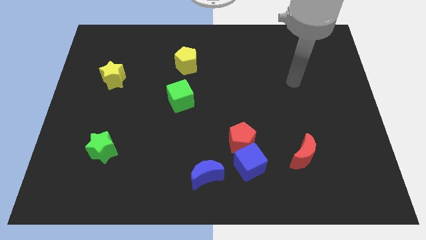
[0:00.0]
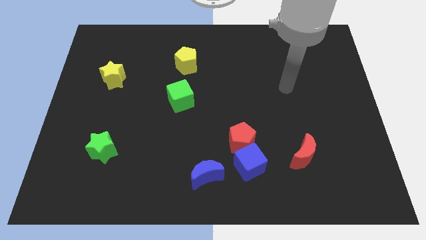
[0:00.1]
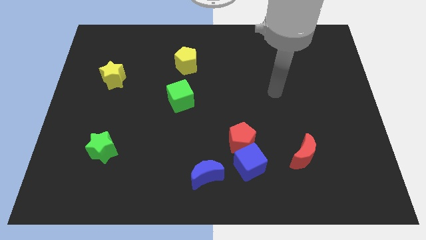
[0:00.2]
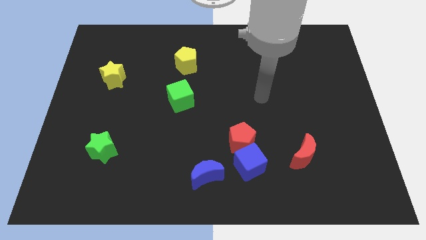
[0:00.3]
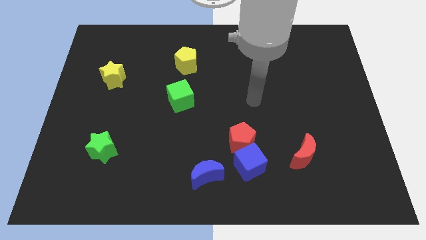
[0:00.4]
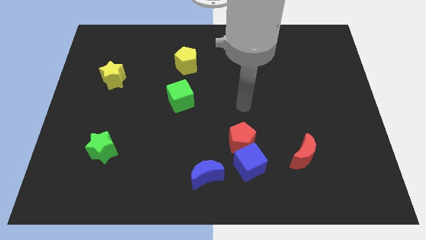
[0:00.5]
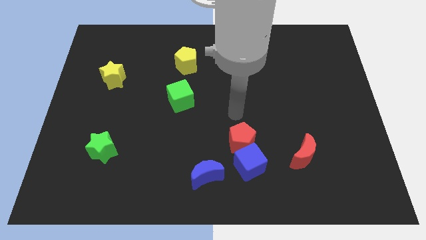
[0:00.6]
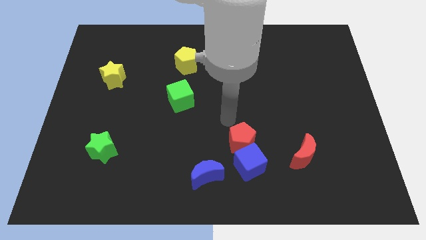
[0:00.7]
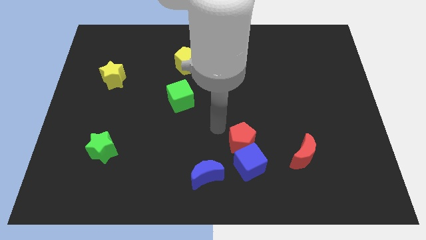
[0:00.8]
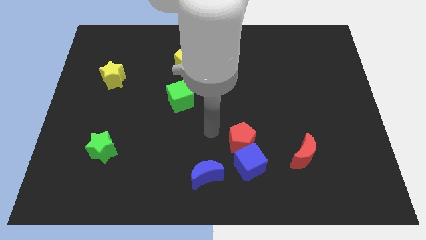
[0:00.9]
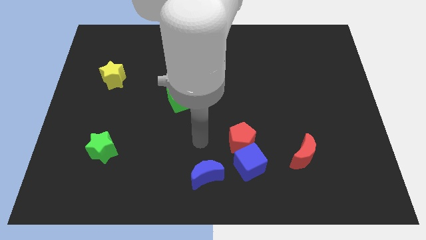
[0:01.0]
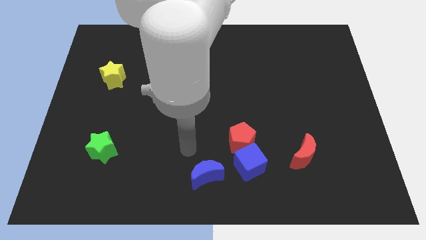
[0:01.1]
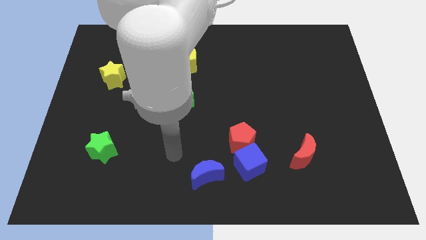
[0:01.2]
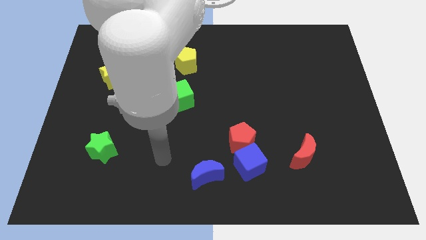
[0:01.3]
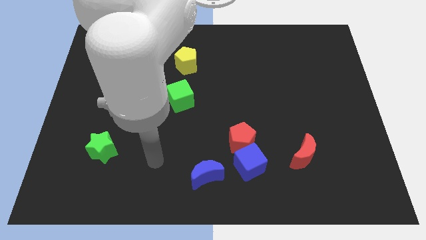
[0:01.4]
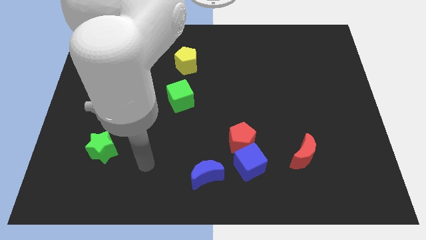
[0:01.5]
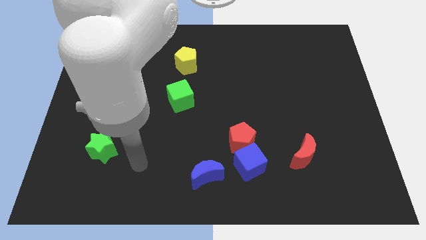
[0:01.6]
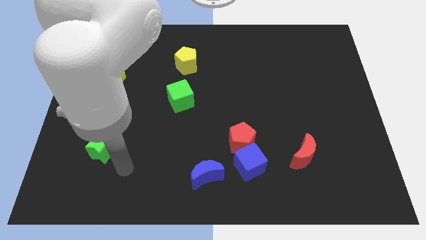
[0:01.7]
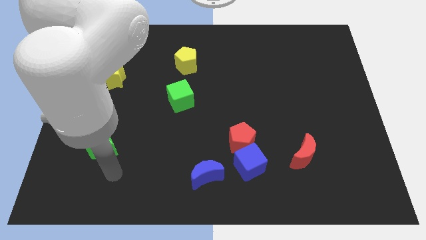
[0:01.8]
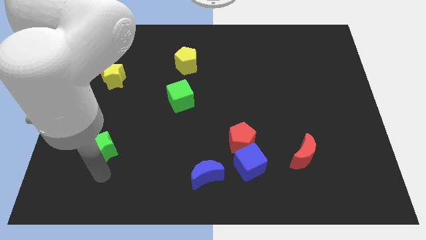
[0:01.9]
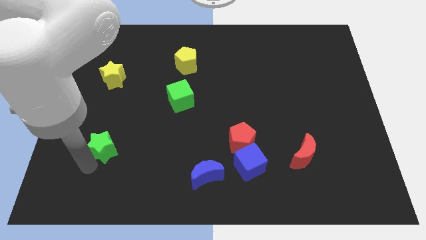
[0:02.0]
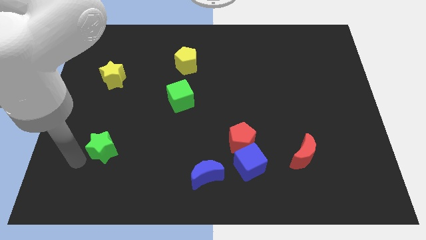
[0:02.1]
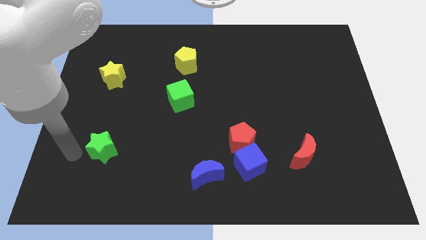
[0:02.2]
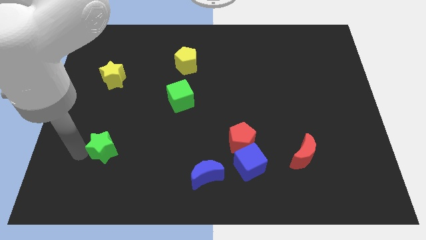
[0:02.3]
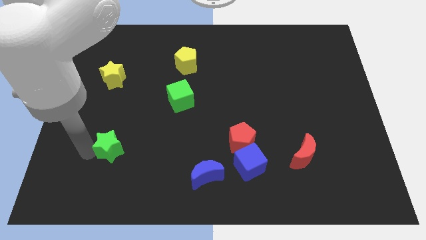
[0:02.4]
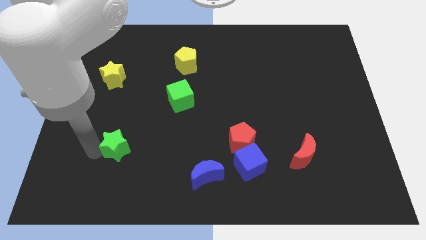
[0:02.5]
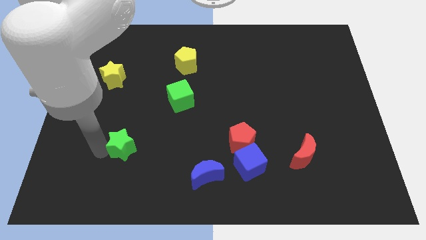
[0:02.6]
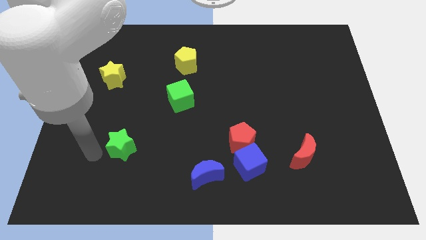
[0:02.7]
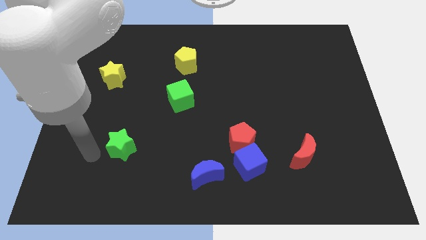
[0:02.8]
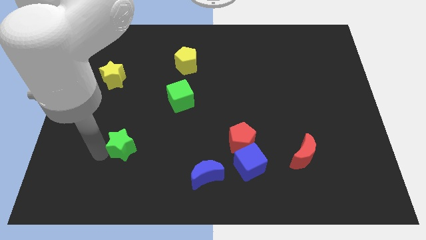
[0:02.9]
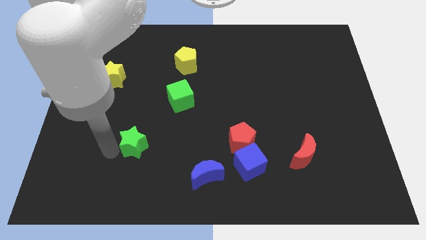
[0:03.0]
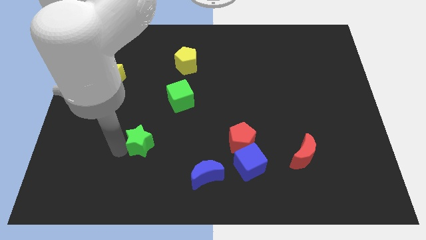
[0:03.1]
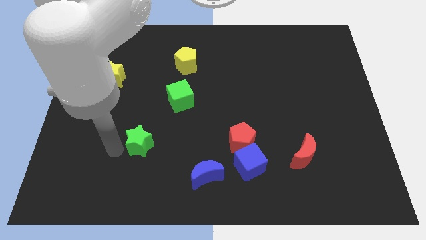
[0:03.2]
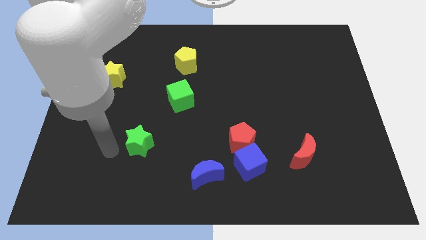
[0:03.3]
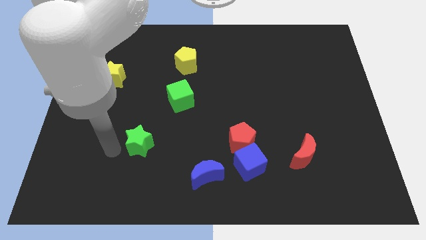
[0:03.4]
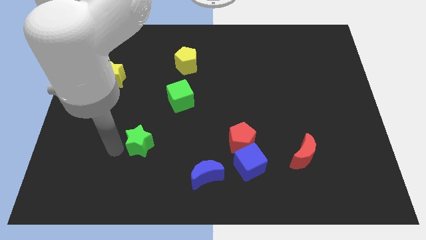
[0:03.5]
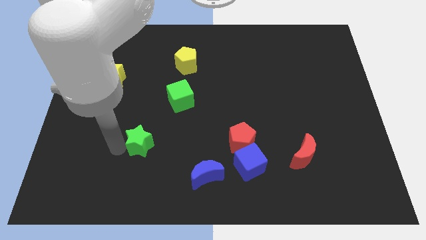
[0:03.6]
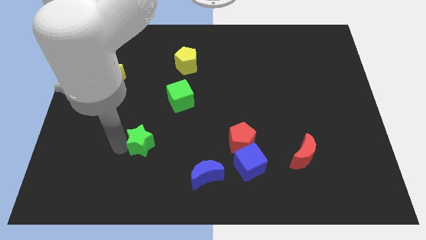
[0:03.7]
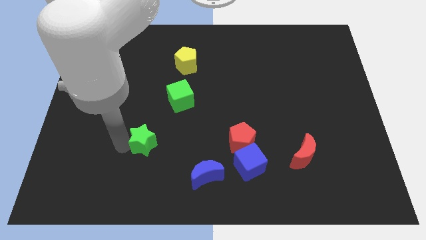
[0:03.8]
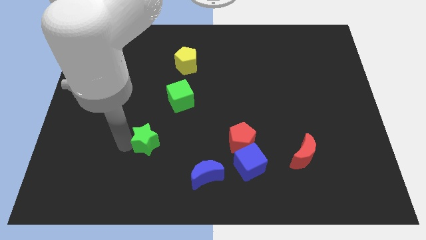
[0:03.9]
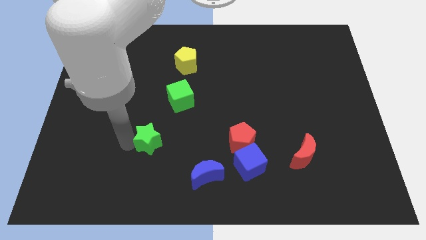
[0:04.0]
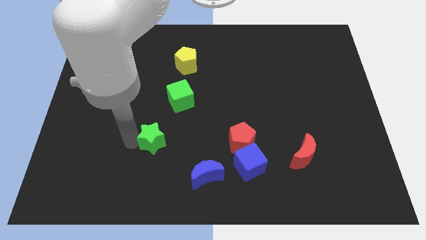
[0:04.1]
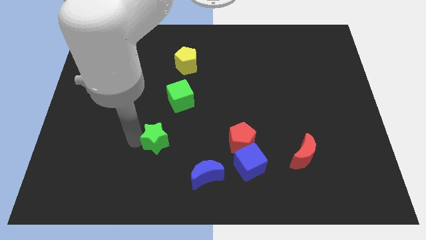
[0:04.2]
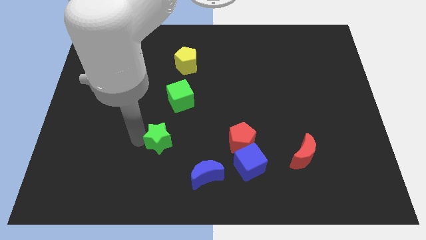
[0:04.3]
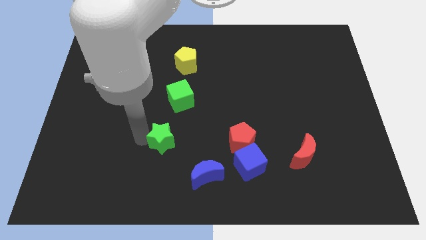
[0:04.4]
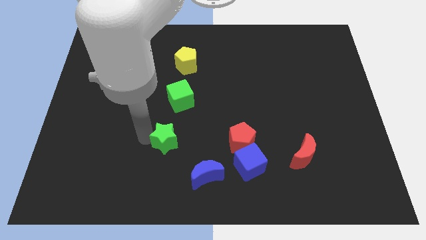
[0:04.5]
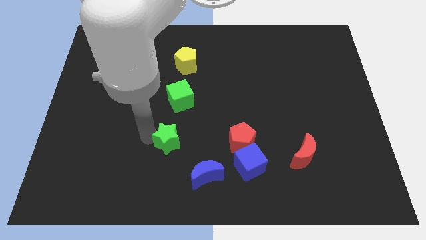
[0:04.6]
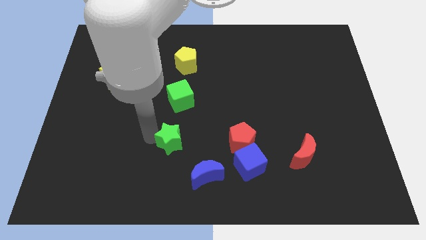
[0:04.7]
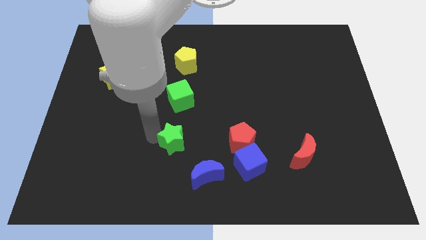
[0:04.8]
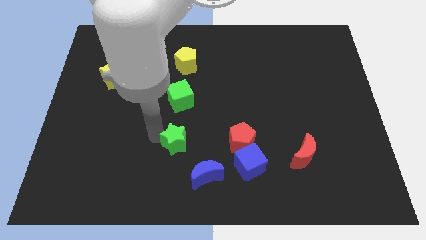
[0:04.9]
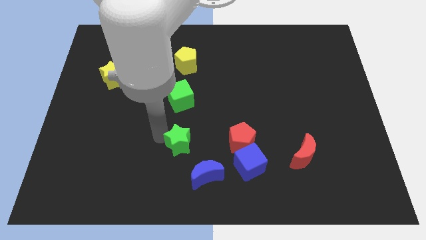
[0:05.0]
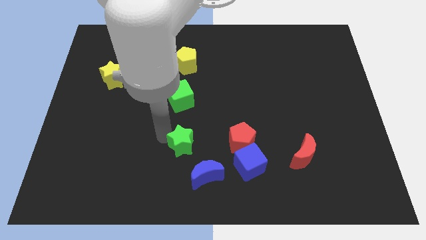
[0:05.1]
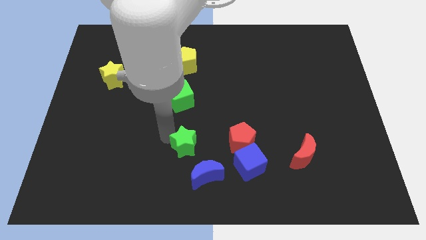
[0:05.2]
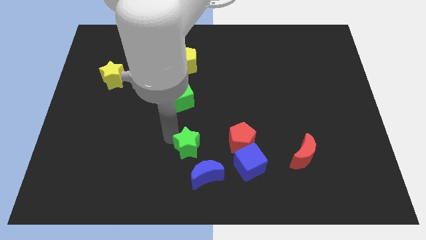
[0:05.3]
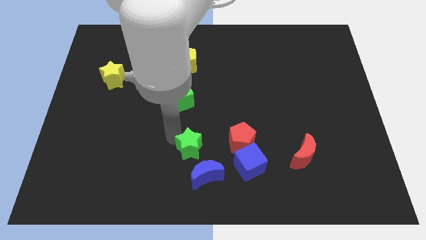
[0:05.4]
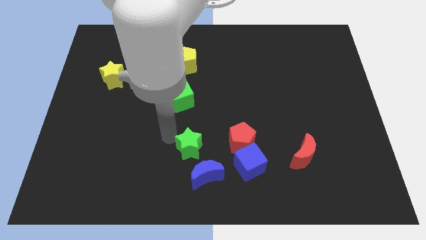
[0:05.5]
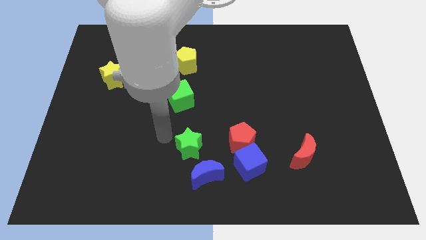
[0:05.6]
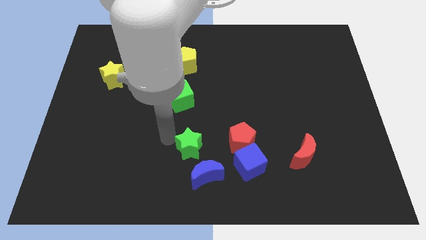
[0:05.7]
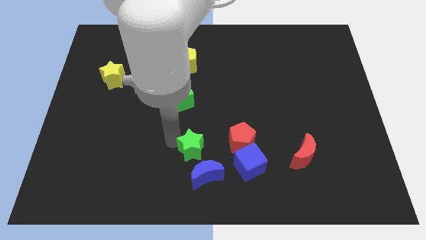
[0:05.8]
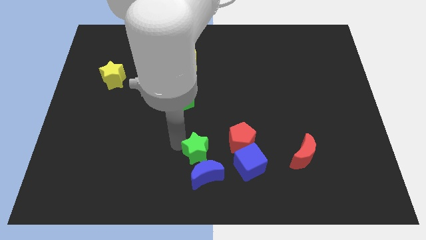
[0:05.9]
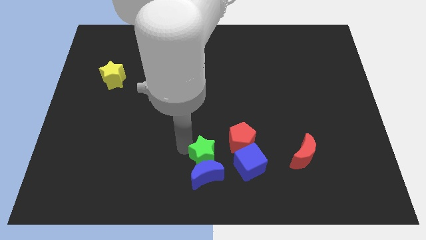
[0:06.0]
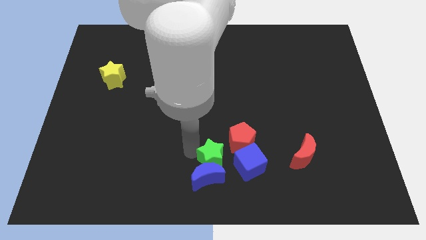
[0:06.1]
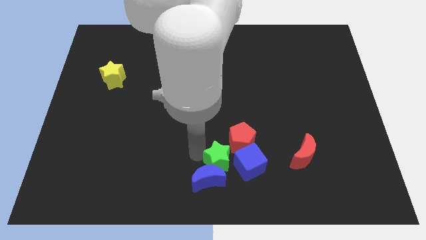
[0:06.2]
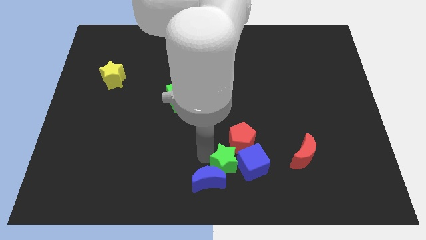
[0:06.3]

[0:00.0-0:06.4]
push the green star to the right side of the blue moon

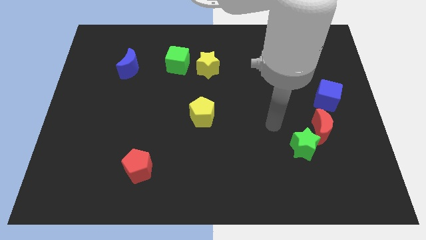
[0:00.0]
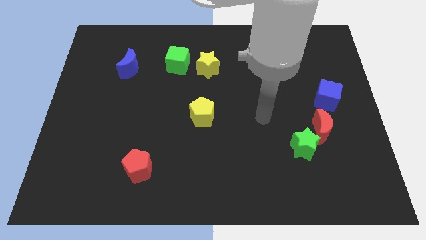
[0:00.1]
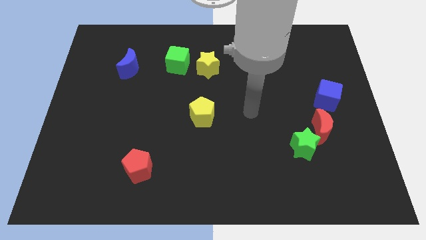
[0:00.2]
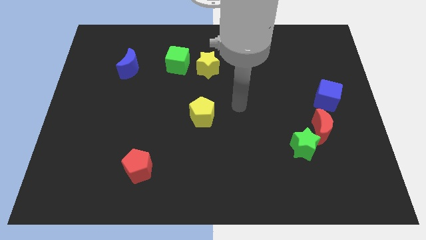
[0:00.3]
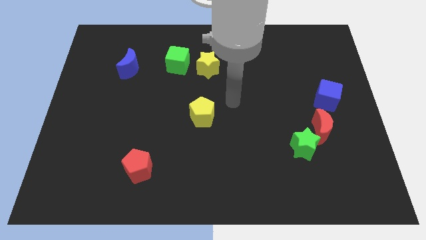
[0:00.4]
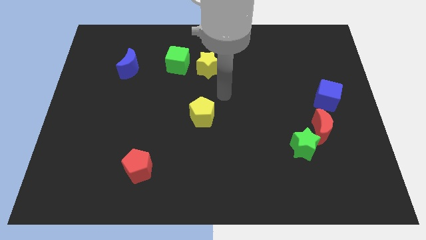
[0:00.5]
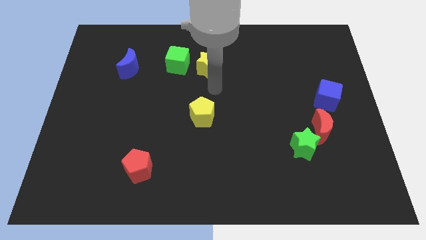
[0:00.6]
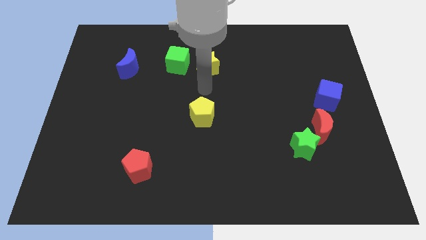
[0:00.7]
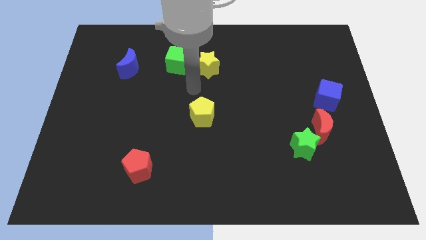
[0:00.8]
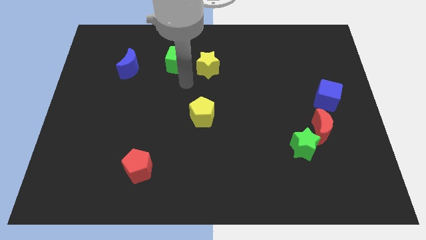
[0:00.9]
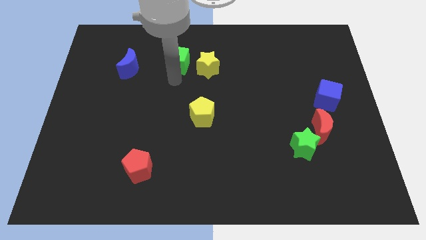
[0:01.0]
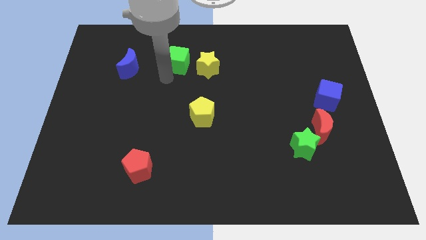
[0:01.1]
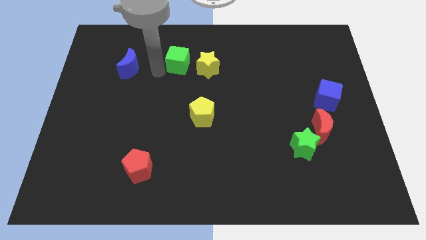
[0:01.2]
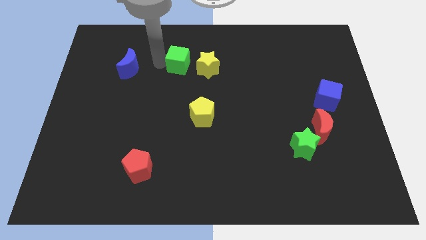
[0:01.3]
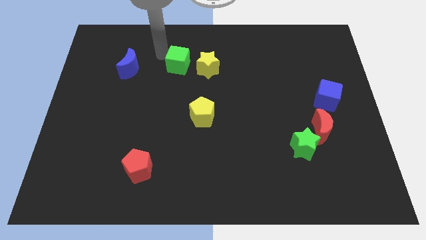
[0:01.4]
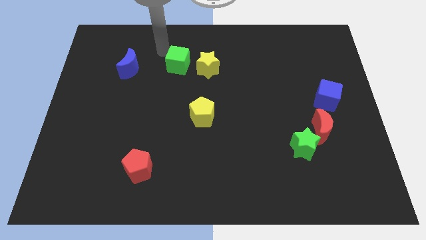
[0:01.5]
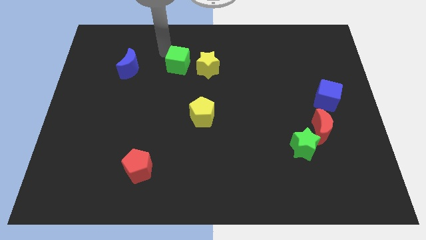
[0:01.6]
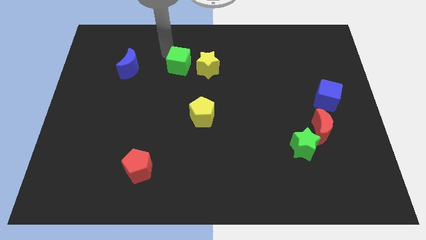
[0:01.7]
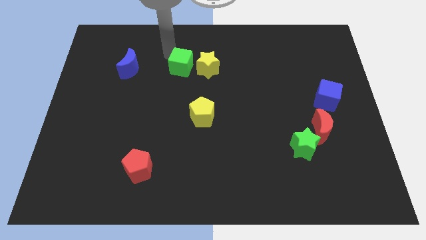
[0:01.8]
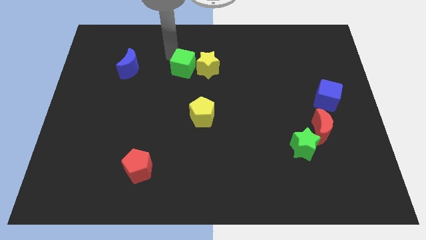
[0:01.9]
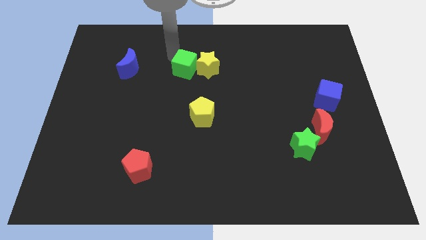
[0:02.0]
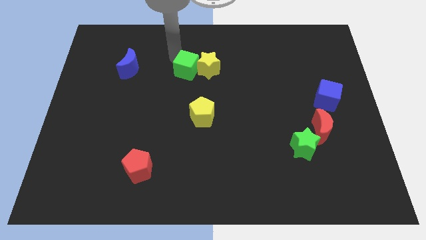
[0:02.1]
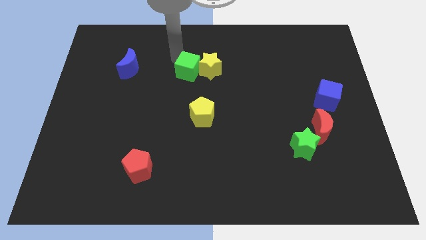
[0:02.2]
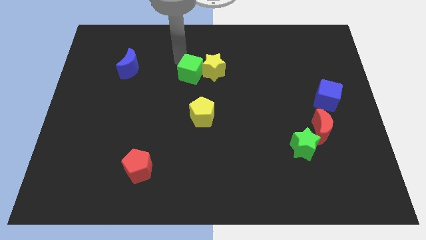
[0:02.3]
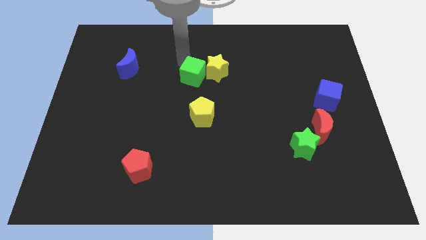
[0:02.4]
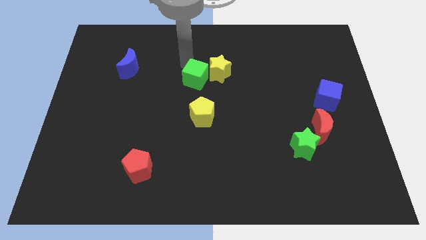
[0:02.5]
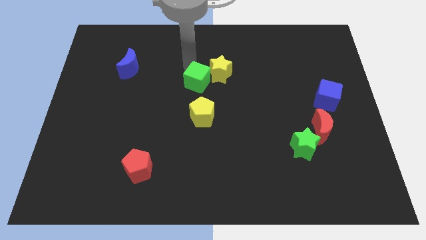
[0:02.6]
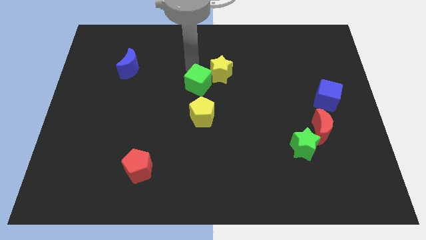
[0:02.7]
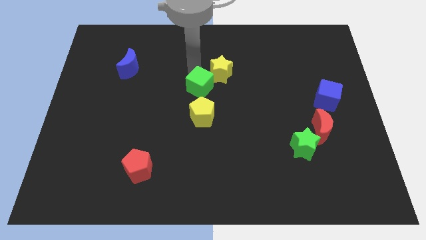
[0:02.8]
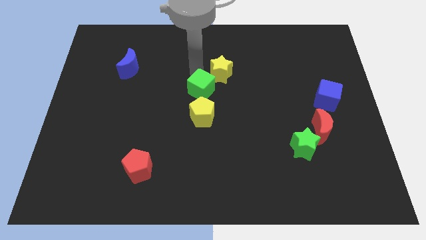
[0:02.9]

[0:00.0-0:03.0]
push the green cube to the bottom side of the yellow star
